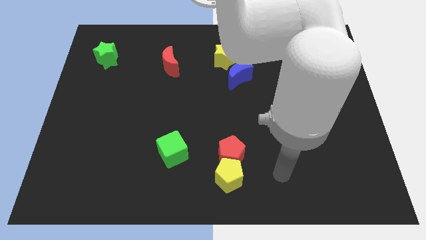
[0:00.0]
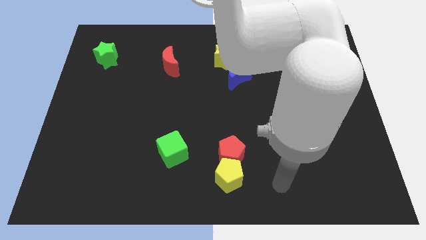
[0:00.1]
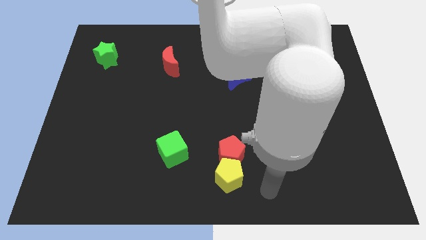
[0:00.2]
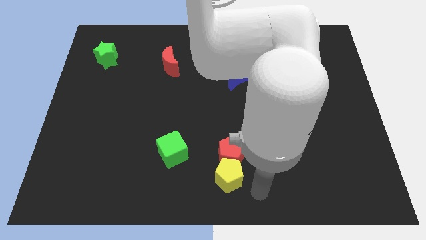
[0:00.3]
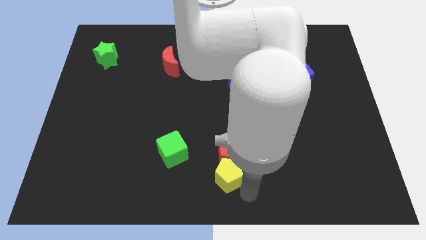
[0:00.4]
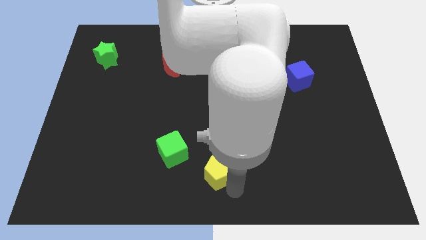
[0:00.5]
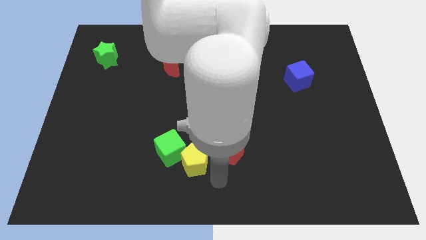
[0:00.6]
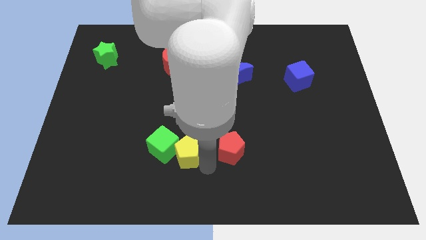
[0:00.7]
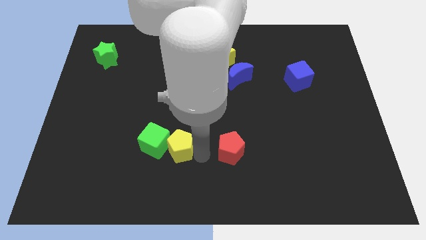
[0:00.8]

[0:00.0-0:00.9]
separate the red pentagon from the yellow pentagon

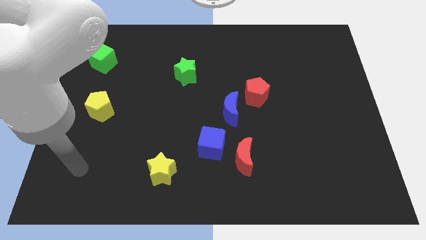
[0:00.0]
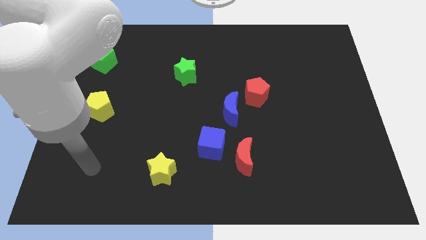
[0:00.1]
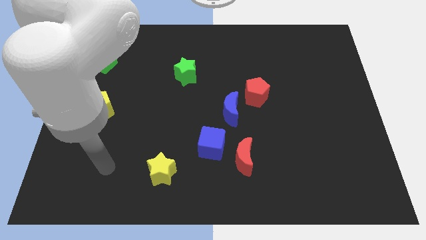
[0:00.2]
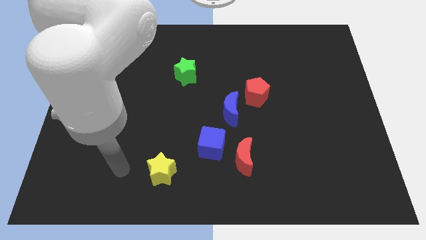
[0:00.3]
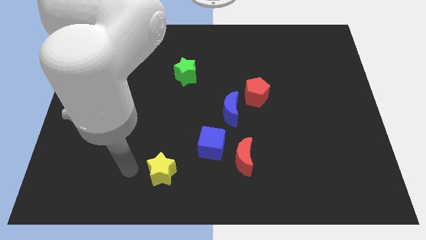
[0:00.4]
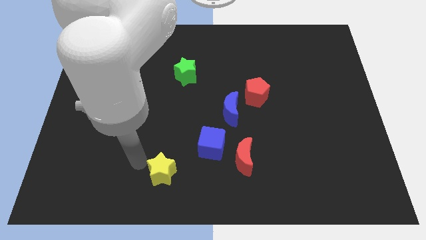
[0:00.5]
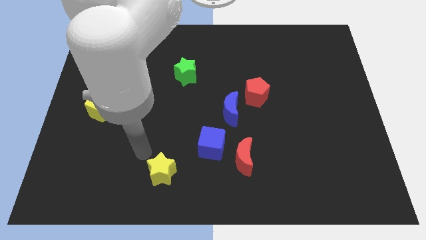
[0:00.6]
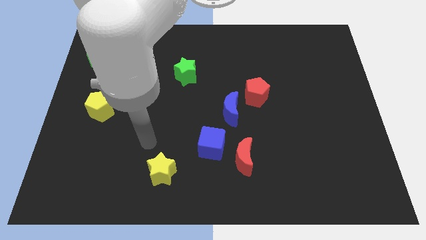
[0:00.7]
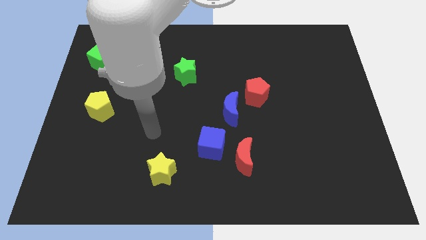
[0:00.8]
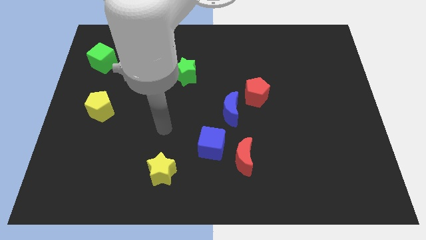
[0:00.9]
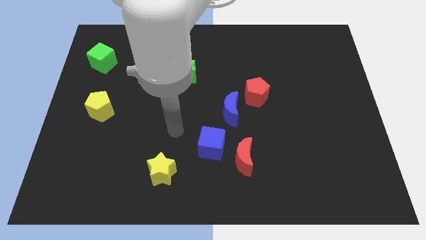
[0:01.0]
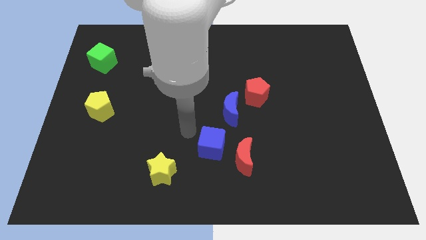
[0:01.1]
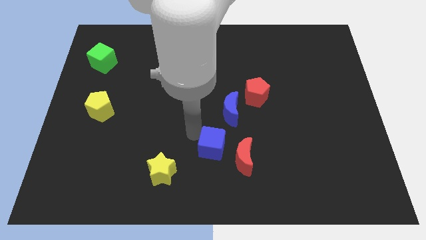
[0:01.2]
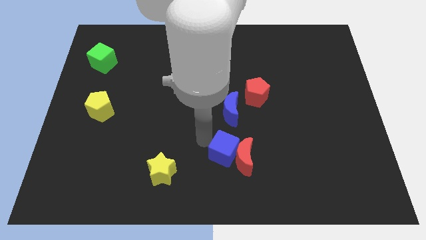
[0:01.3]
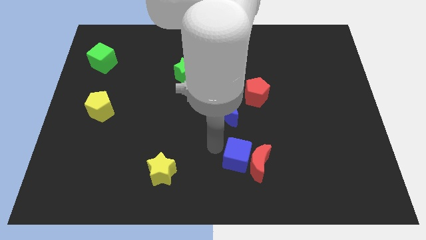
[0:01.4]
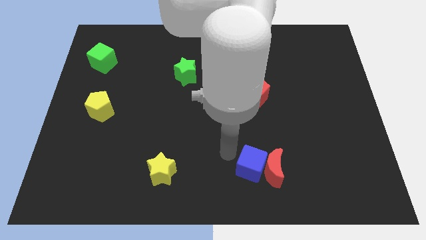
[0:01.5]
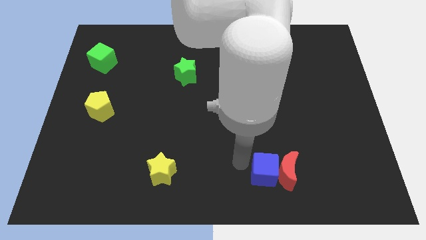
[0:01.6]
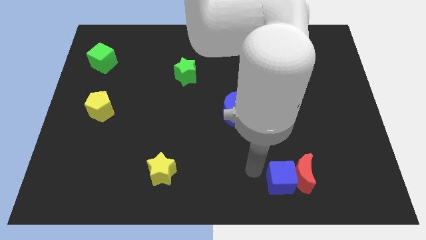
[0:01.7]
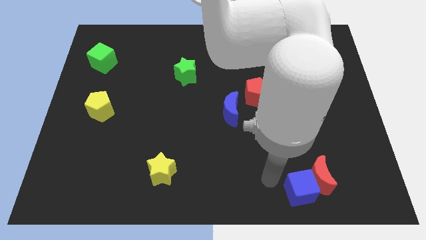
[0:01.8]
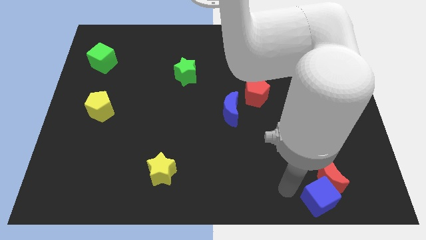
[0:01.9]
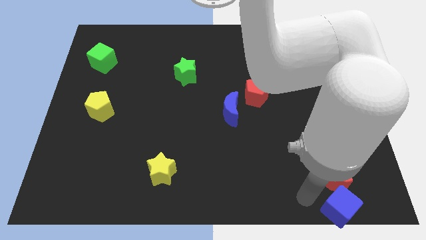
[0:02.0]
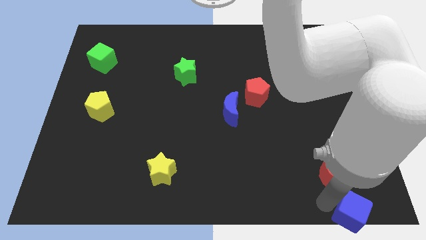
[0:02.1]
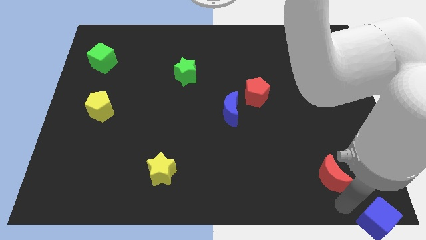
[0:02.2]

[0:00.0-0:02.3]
move the red moon away from the blue cube

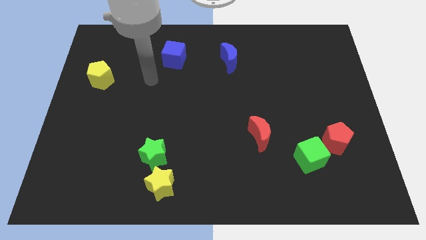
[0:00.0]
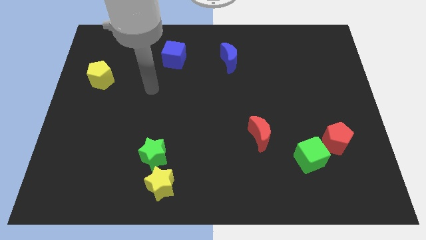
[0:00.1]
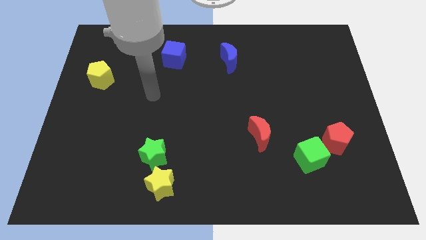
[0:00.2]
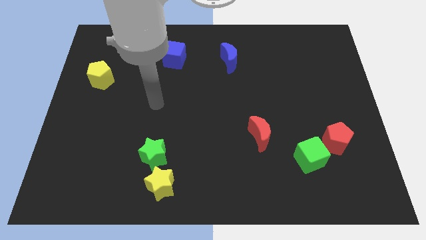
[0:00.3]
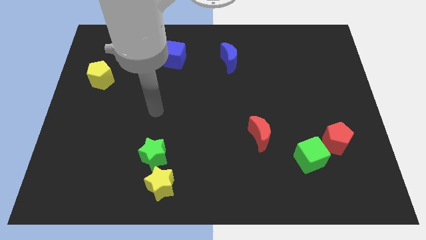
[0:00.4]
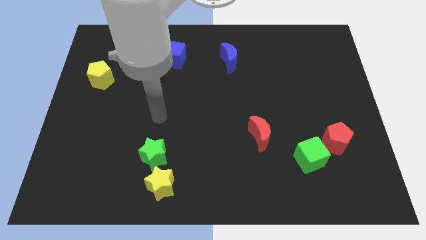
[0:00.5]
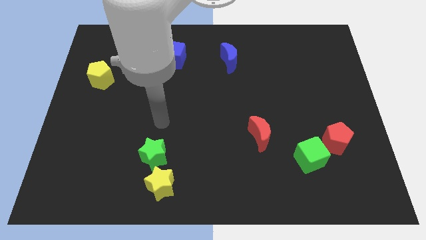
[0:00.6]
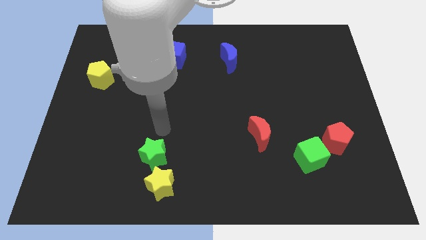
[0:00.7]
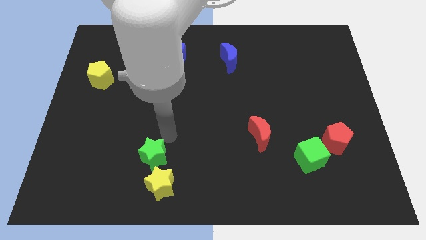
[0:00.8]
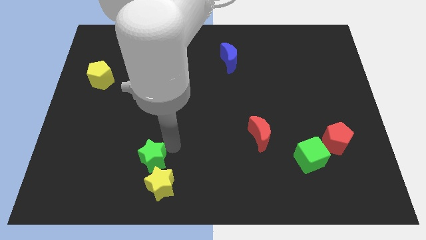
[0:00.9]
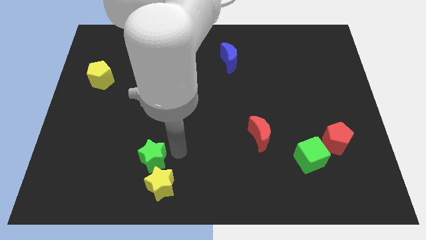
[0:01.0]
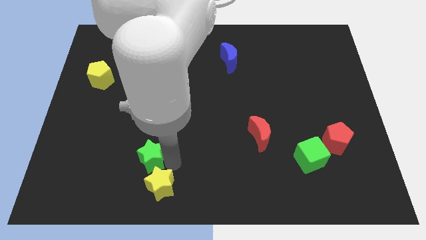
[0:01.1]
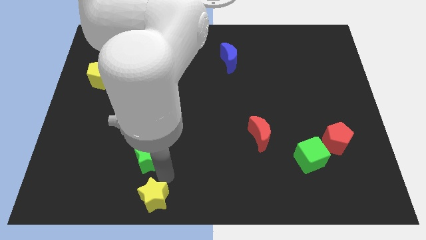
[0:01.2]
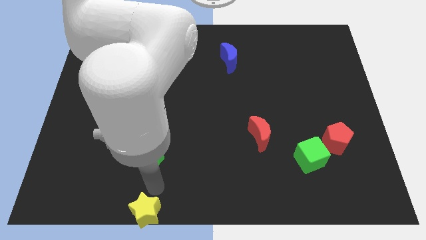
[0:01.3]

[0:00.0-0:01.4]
move the green star away from the yellow star

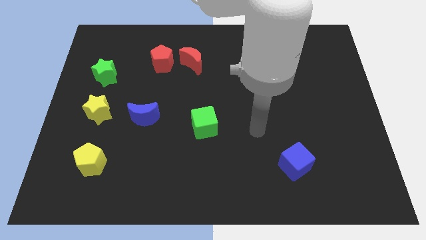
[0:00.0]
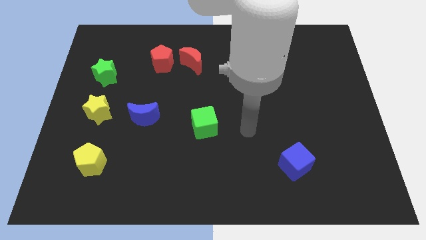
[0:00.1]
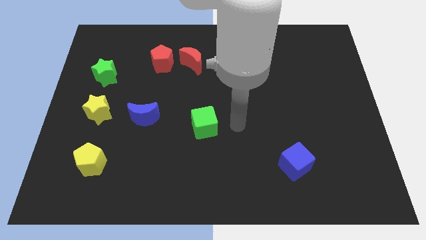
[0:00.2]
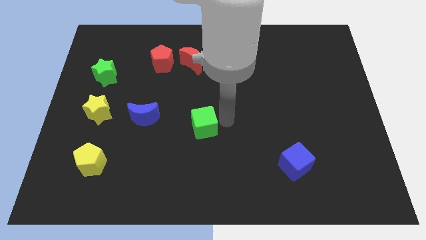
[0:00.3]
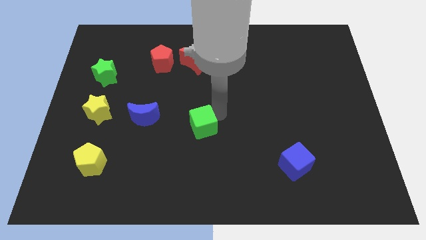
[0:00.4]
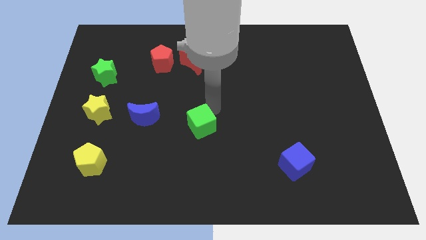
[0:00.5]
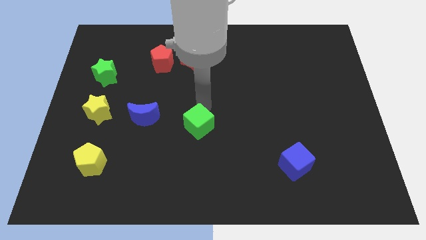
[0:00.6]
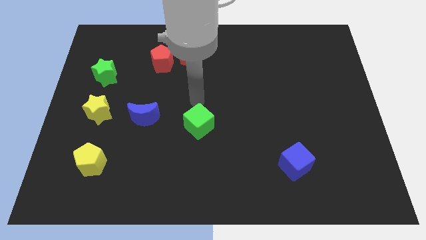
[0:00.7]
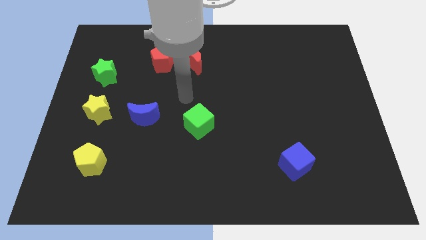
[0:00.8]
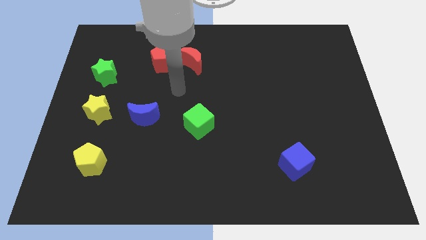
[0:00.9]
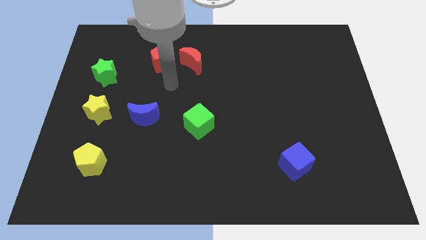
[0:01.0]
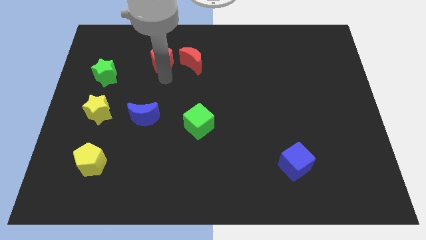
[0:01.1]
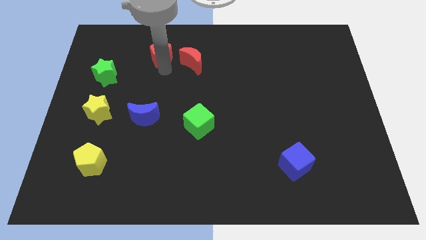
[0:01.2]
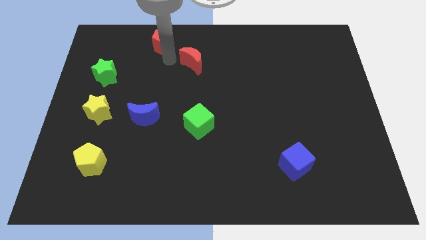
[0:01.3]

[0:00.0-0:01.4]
pull the red moon apart from the red pentagon

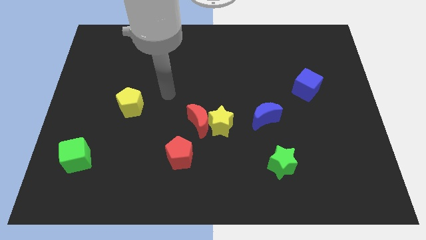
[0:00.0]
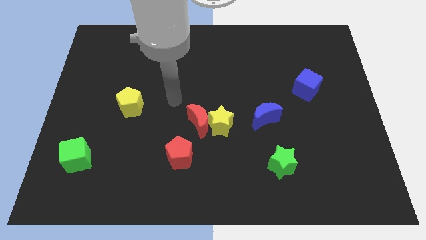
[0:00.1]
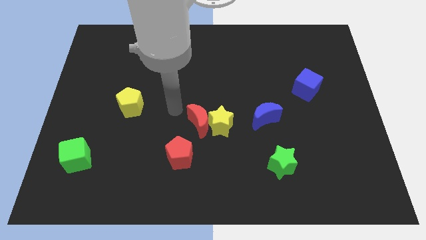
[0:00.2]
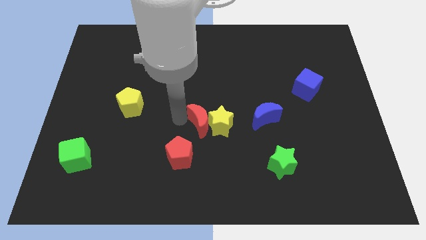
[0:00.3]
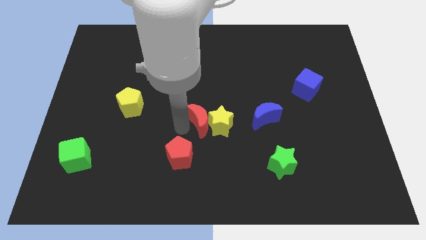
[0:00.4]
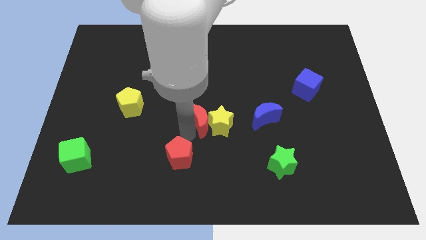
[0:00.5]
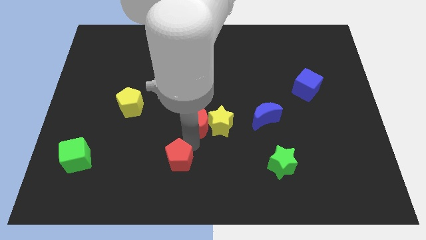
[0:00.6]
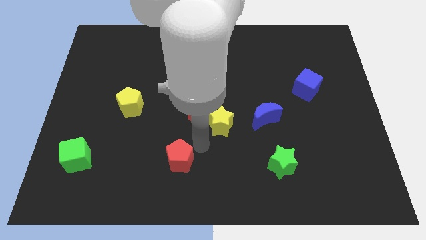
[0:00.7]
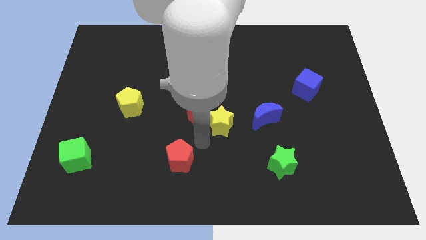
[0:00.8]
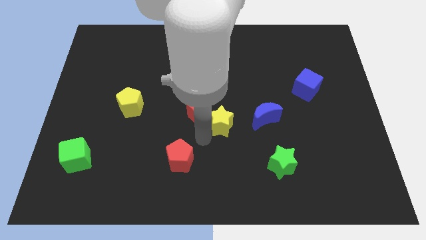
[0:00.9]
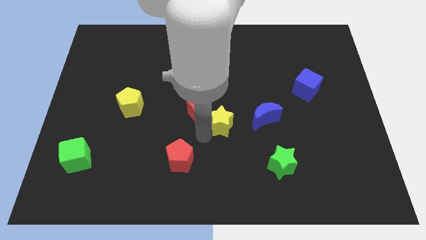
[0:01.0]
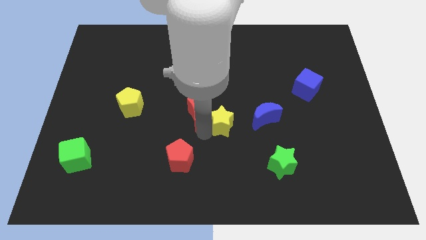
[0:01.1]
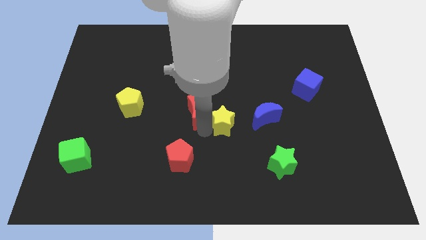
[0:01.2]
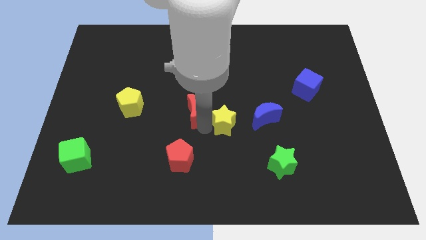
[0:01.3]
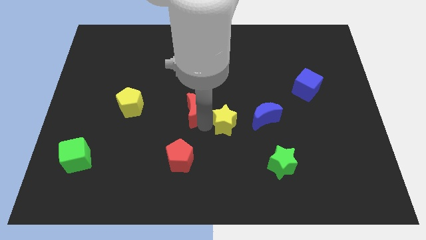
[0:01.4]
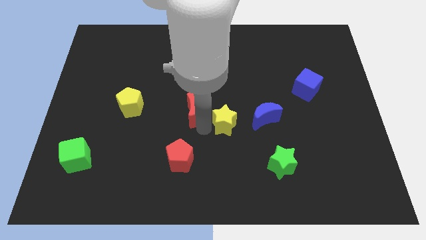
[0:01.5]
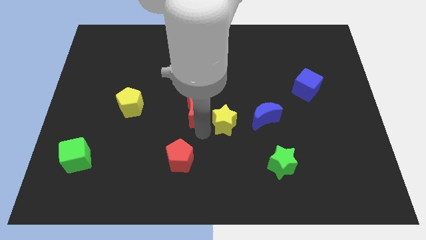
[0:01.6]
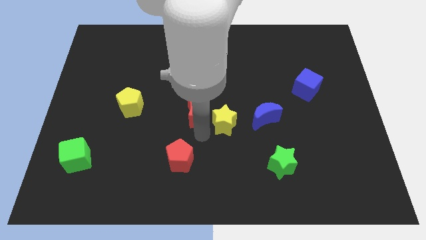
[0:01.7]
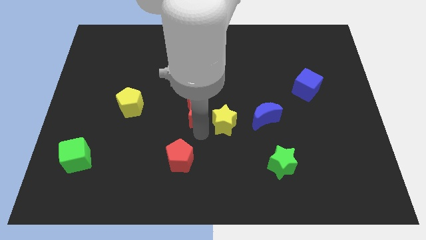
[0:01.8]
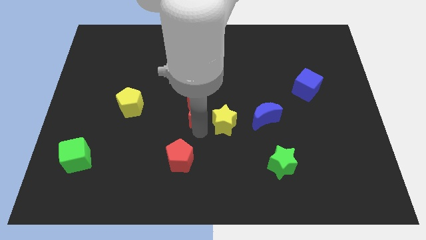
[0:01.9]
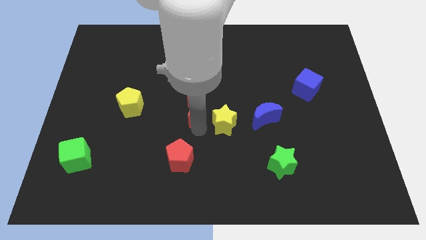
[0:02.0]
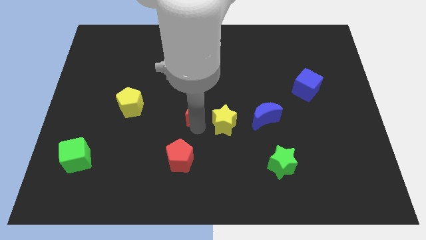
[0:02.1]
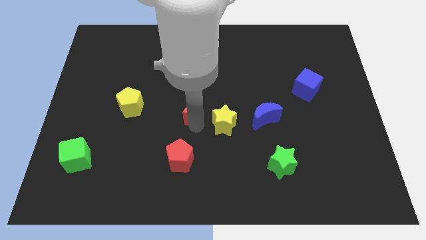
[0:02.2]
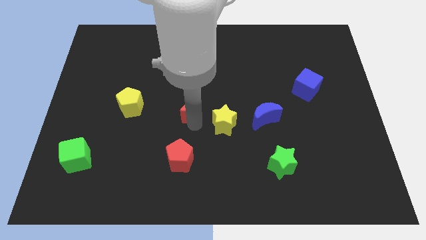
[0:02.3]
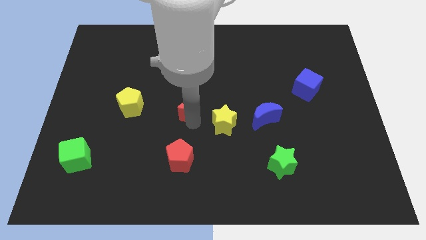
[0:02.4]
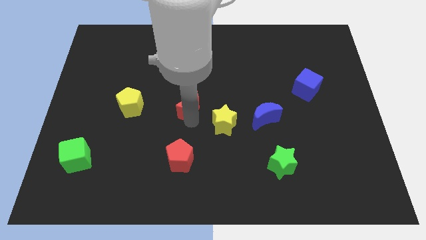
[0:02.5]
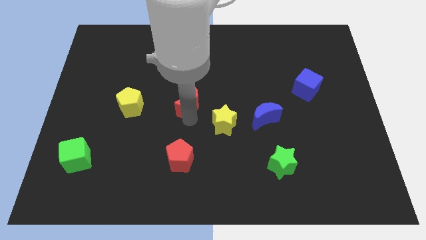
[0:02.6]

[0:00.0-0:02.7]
move the red moon away from the yellow star and red pentagon

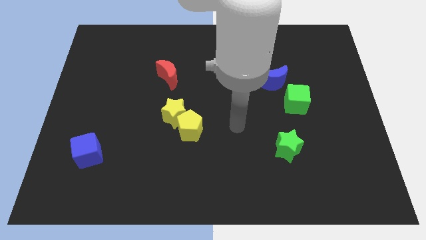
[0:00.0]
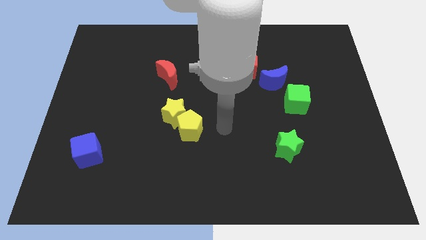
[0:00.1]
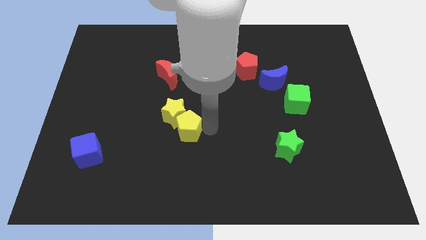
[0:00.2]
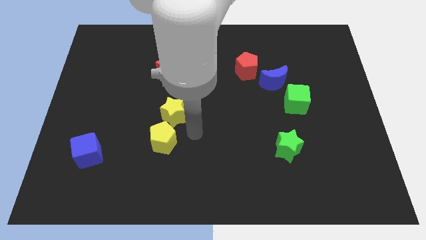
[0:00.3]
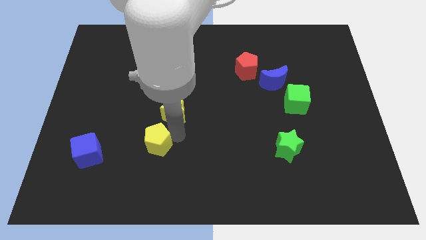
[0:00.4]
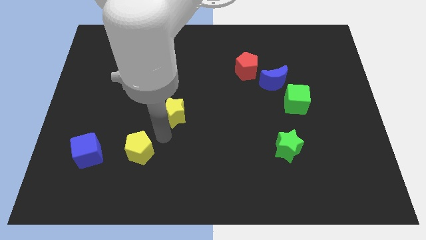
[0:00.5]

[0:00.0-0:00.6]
pull the yellow star apart from the yellow pentagon
